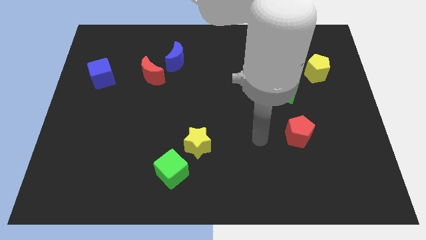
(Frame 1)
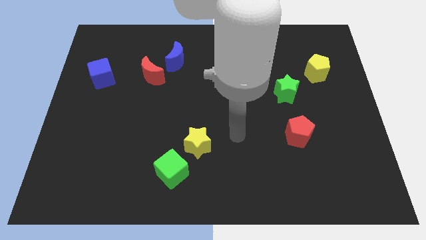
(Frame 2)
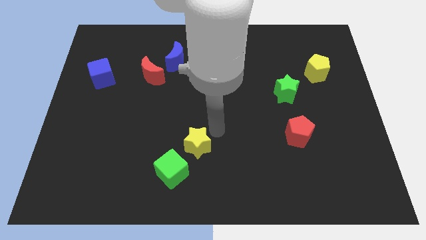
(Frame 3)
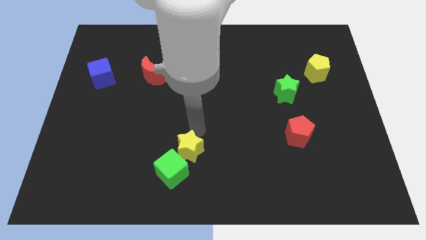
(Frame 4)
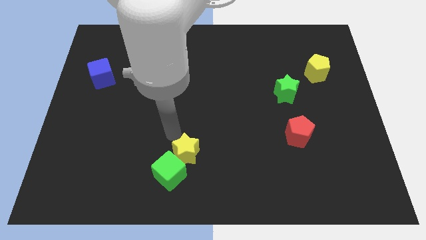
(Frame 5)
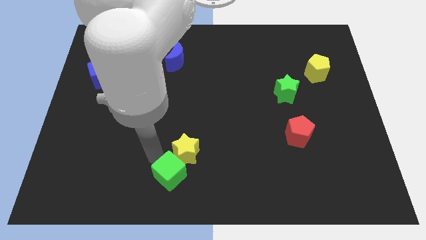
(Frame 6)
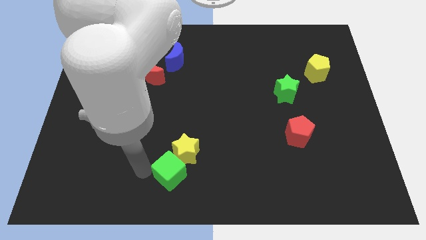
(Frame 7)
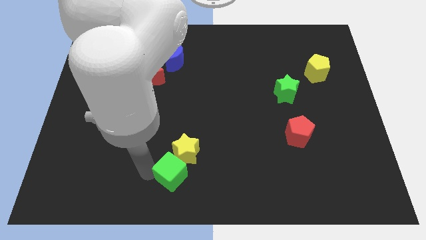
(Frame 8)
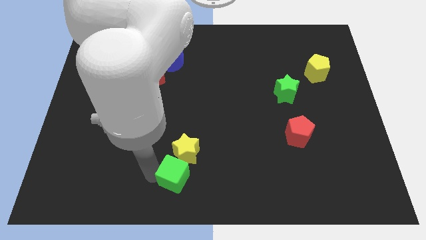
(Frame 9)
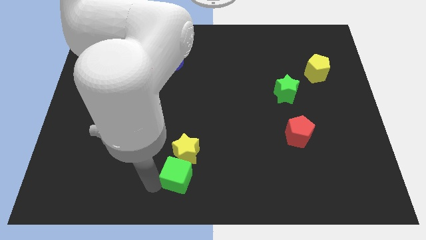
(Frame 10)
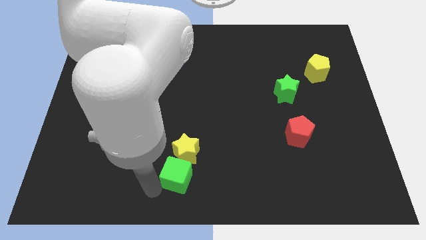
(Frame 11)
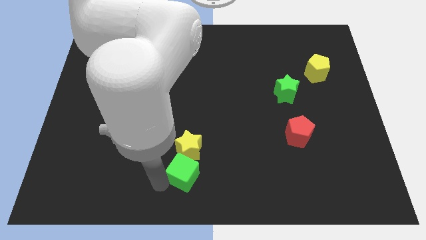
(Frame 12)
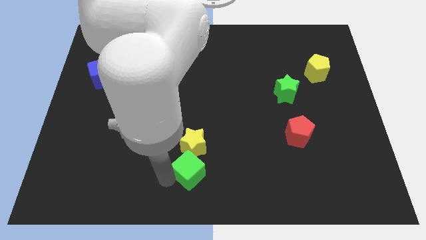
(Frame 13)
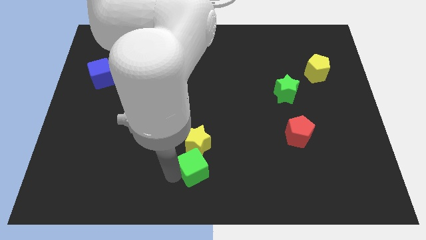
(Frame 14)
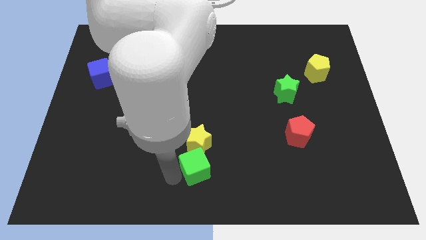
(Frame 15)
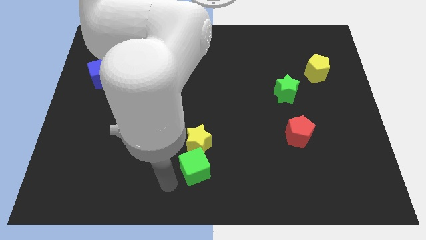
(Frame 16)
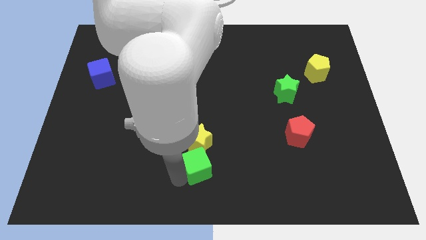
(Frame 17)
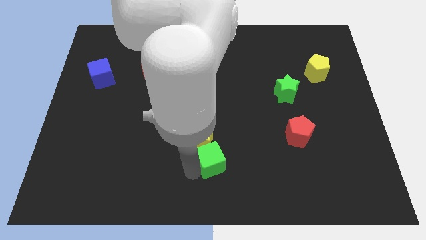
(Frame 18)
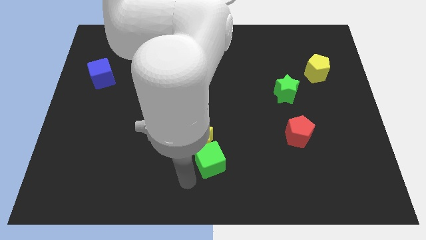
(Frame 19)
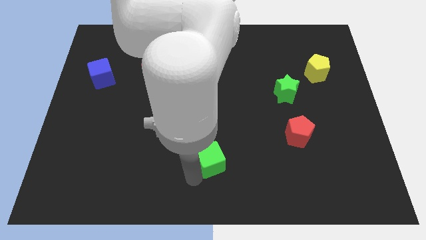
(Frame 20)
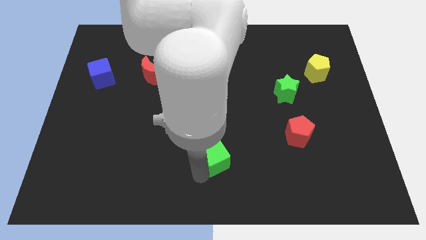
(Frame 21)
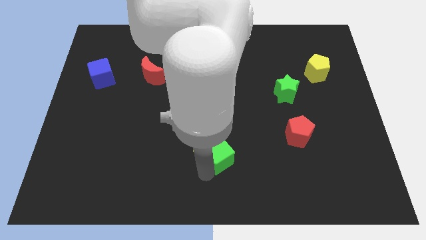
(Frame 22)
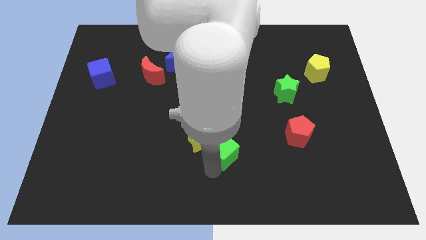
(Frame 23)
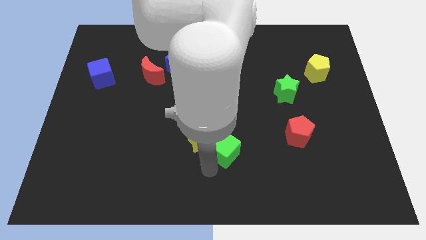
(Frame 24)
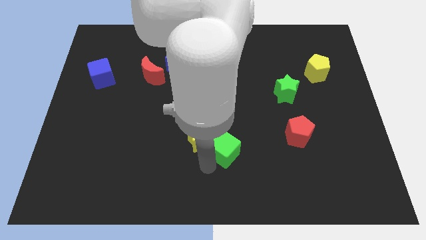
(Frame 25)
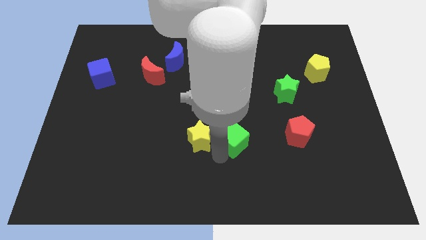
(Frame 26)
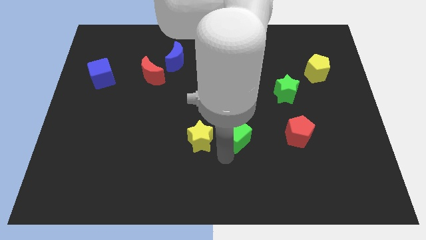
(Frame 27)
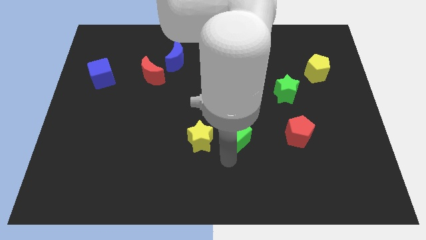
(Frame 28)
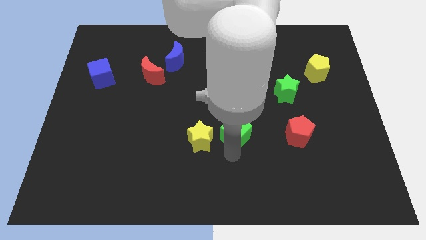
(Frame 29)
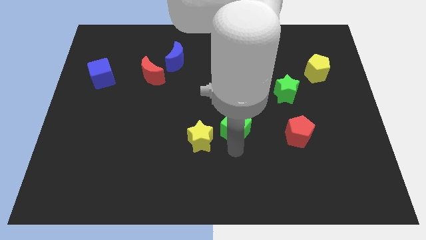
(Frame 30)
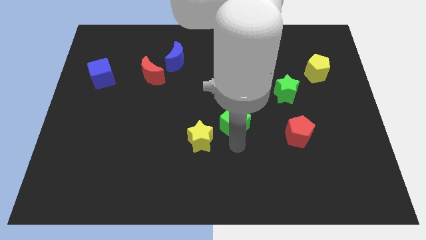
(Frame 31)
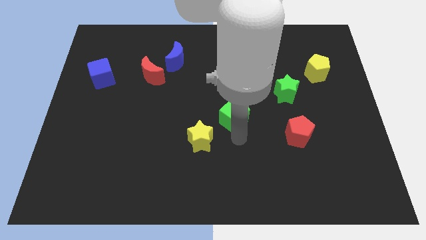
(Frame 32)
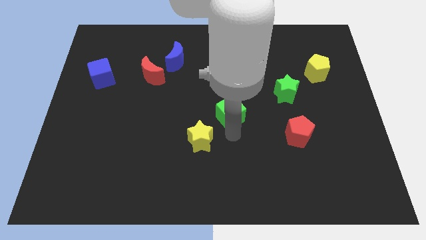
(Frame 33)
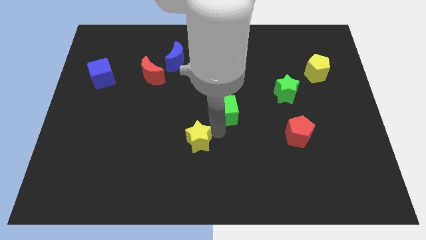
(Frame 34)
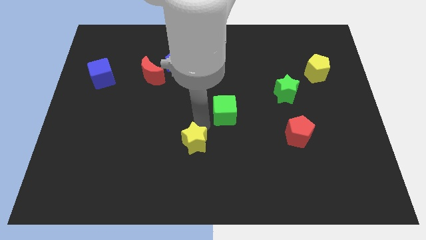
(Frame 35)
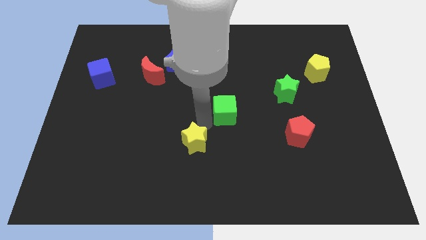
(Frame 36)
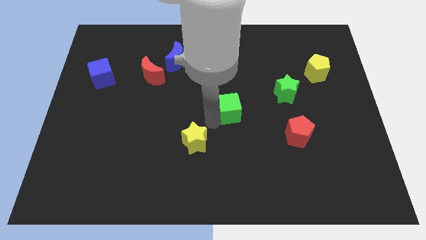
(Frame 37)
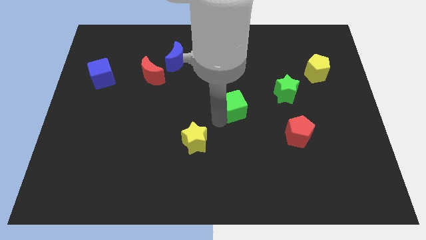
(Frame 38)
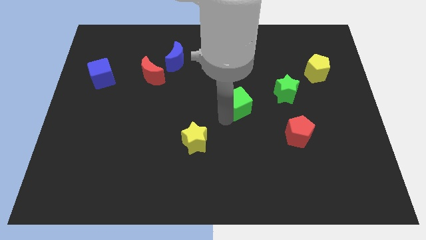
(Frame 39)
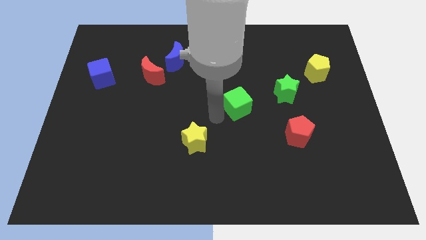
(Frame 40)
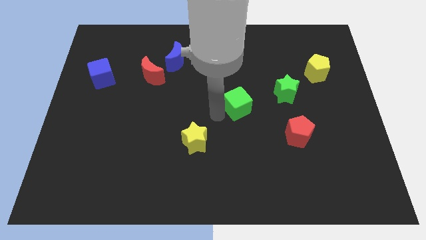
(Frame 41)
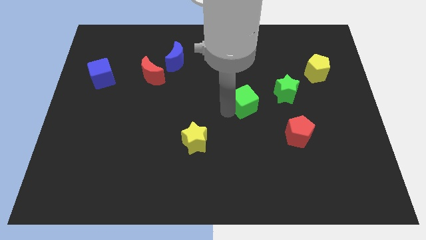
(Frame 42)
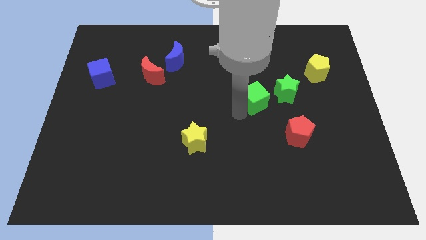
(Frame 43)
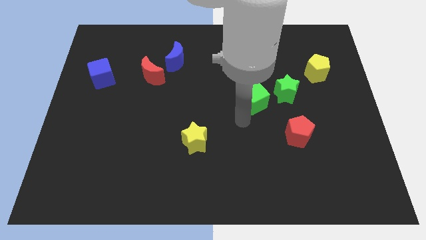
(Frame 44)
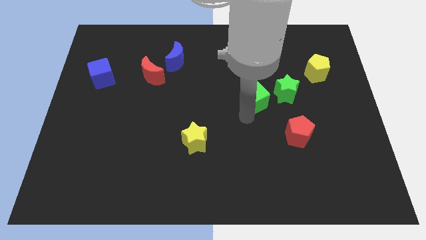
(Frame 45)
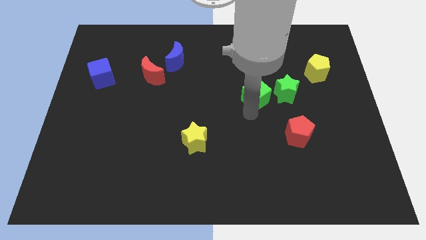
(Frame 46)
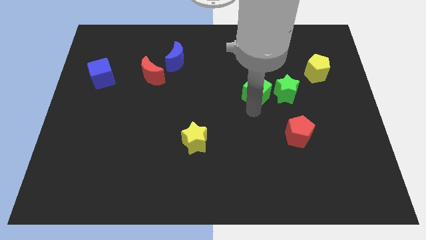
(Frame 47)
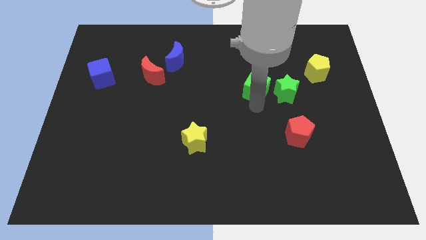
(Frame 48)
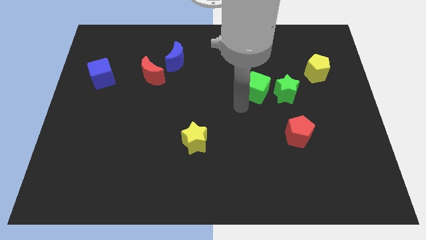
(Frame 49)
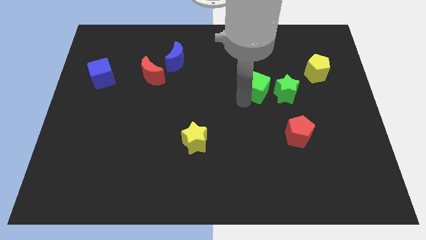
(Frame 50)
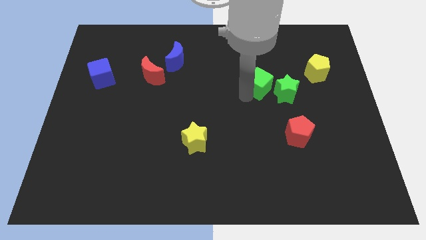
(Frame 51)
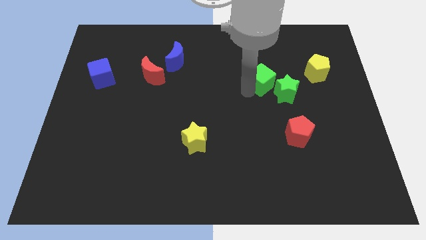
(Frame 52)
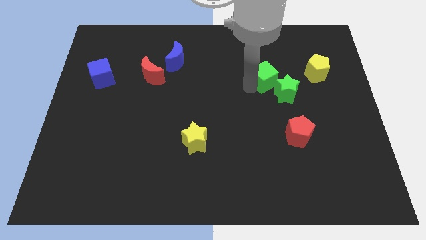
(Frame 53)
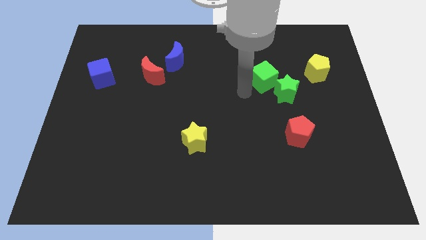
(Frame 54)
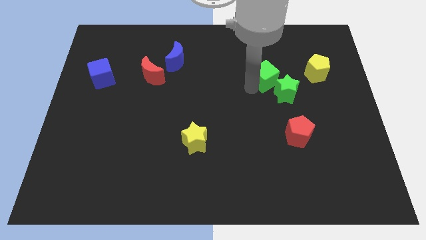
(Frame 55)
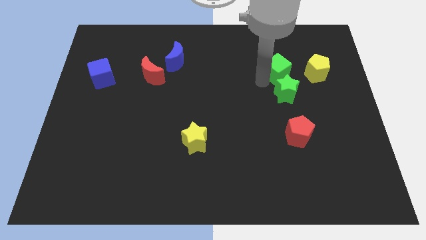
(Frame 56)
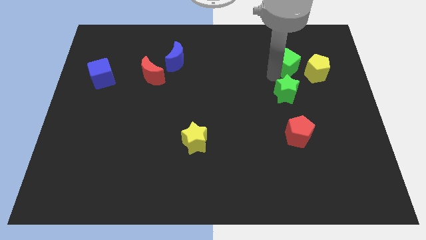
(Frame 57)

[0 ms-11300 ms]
move the green cube to the top left of the yellow pentagon

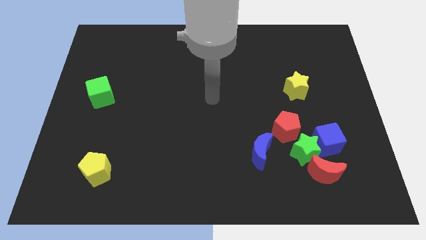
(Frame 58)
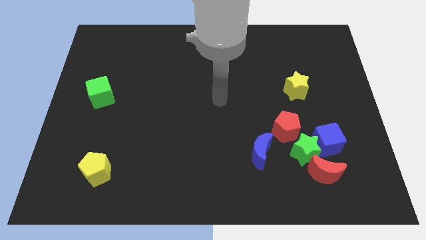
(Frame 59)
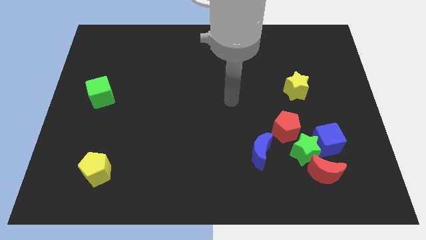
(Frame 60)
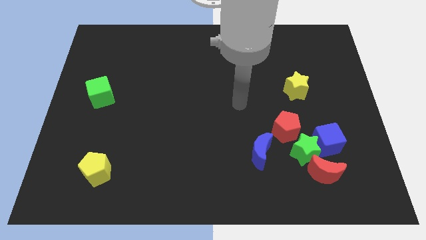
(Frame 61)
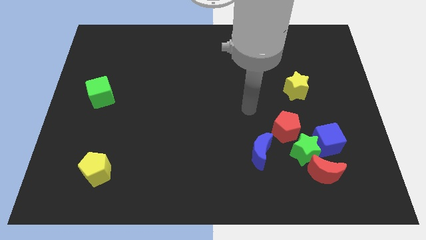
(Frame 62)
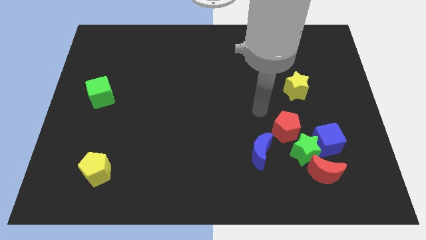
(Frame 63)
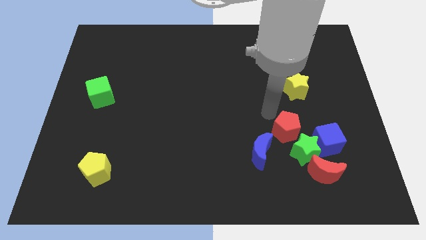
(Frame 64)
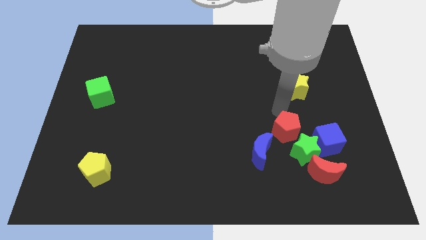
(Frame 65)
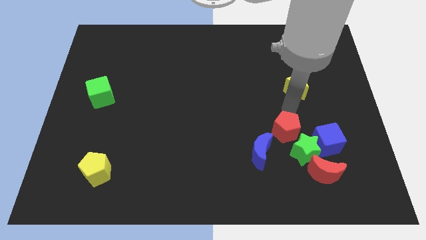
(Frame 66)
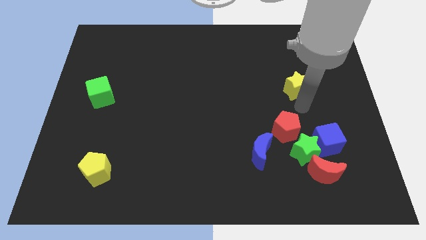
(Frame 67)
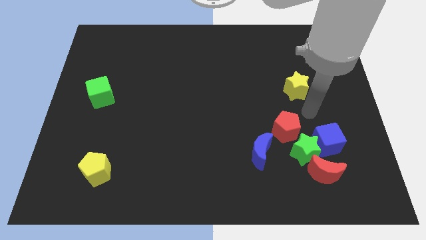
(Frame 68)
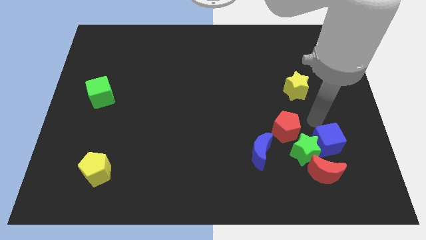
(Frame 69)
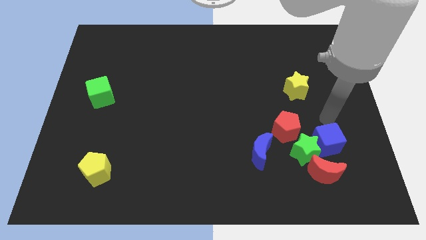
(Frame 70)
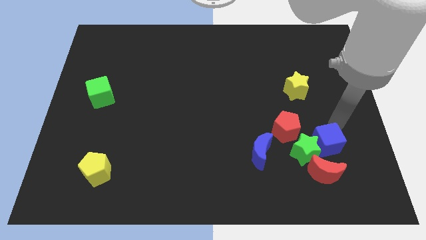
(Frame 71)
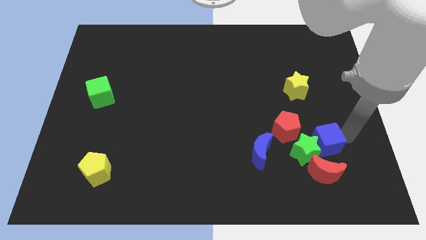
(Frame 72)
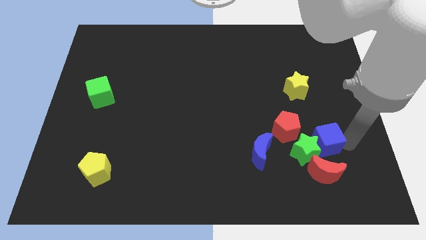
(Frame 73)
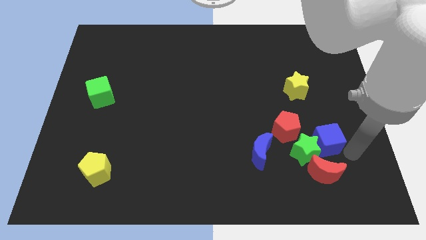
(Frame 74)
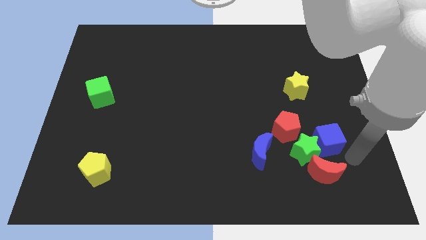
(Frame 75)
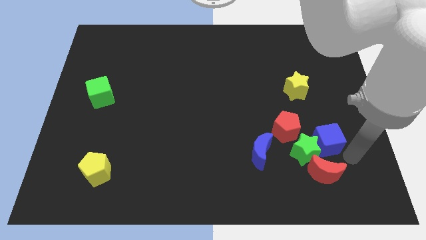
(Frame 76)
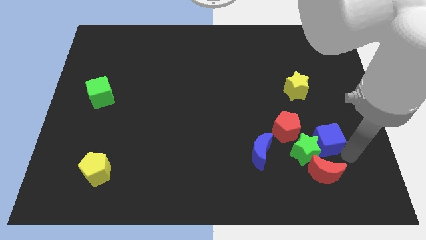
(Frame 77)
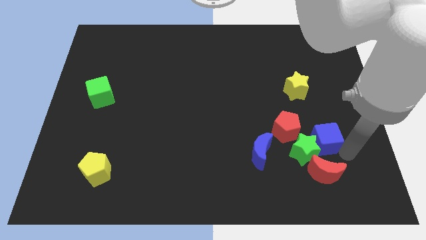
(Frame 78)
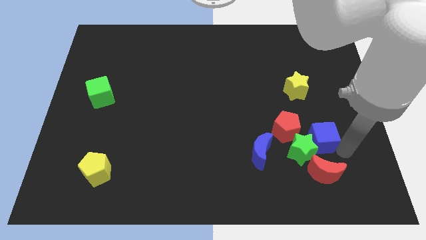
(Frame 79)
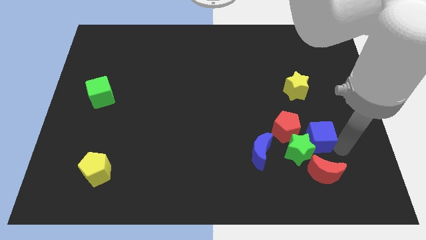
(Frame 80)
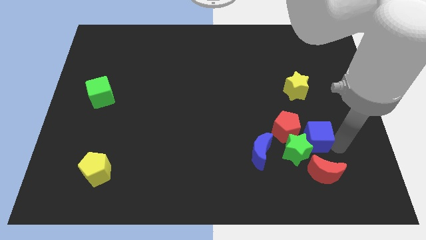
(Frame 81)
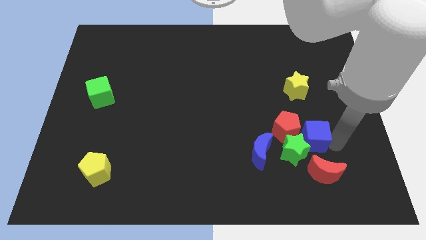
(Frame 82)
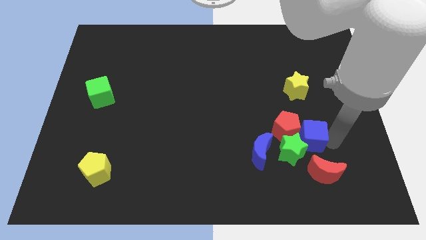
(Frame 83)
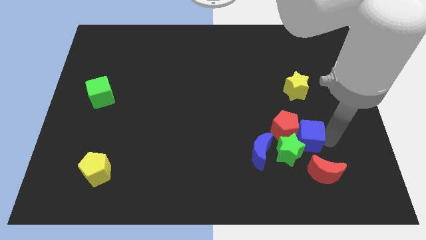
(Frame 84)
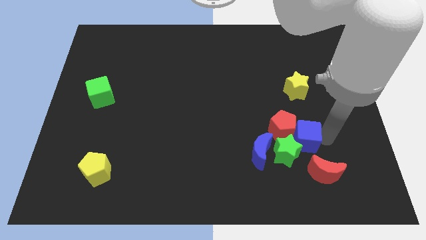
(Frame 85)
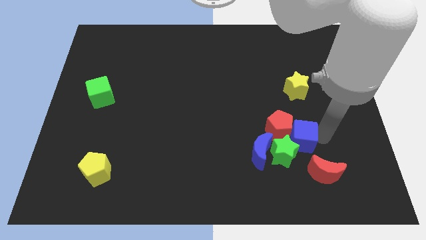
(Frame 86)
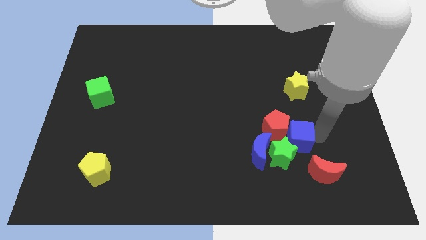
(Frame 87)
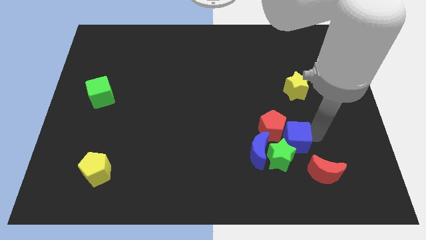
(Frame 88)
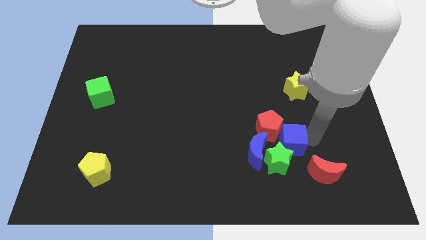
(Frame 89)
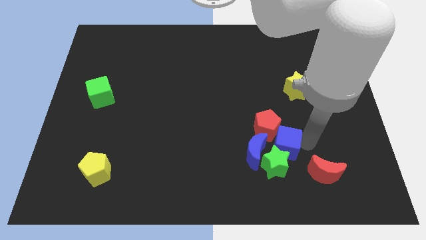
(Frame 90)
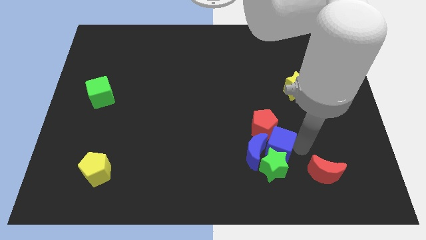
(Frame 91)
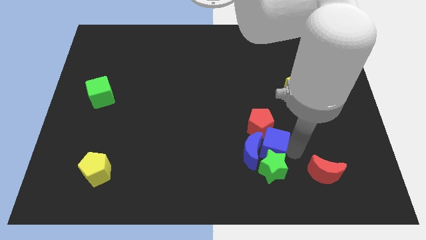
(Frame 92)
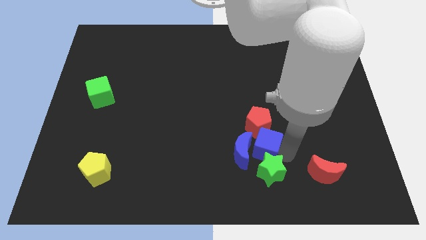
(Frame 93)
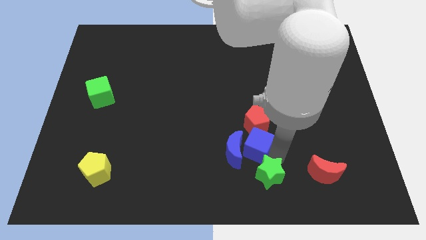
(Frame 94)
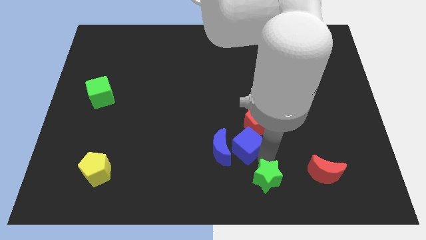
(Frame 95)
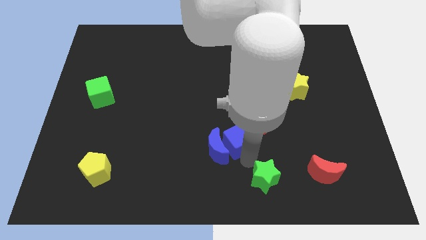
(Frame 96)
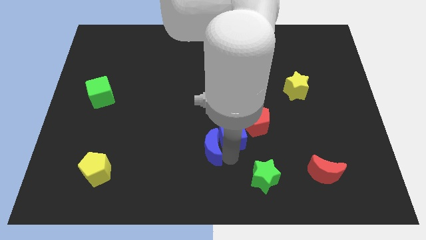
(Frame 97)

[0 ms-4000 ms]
push the blue cube to the left side of the red pentagon
